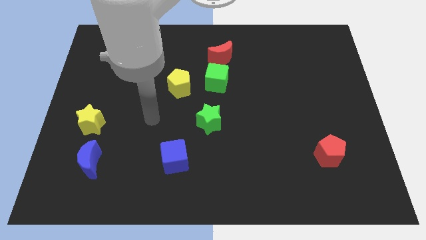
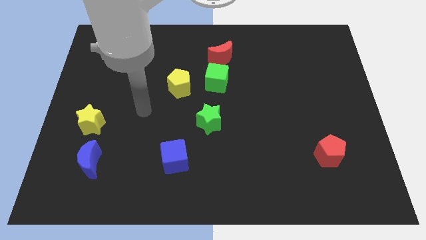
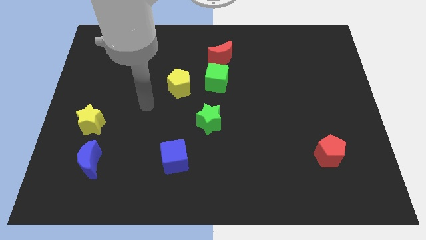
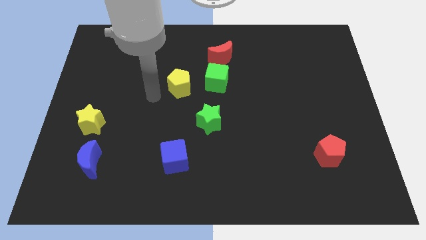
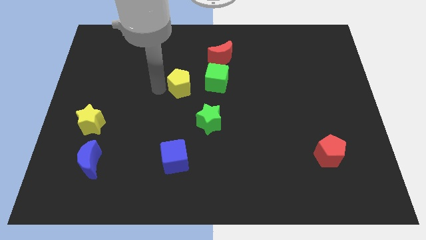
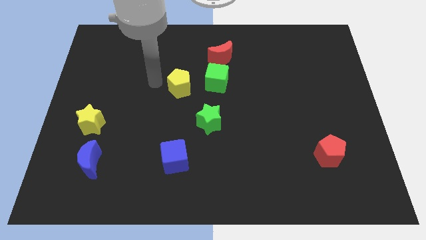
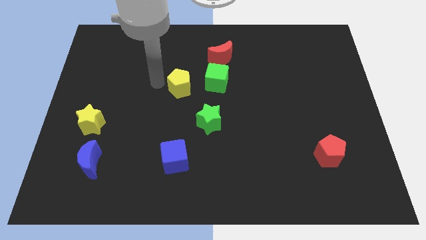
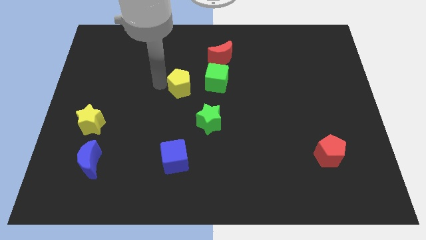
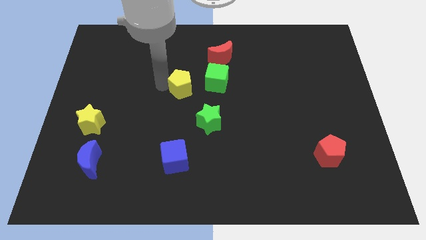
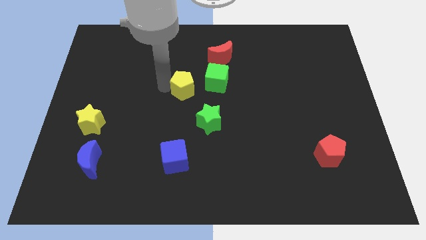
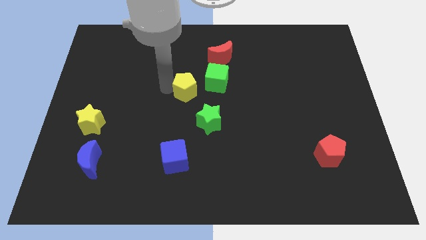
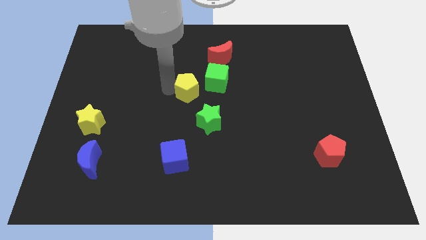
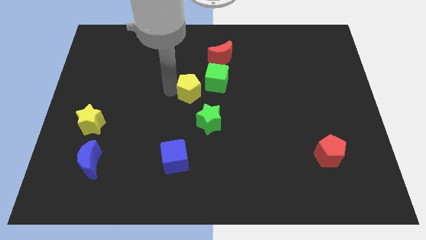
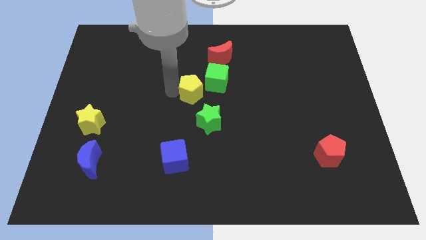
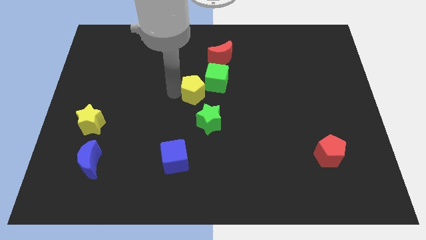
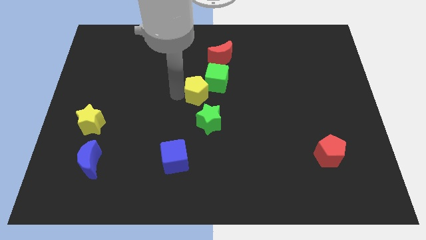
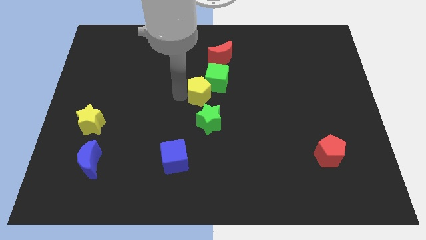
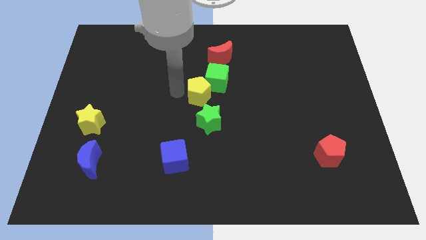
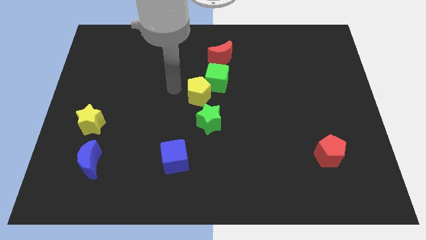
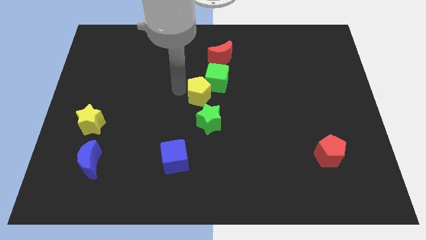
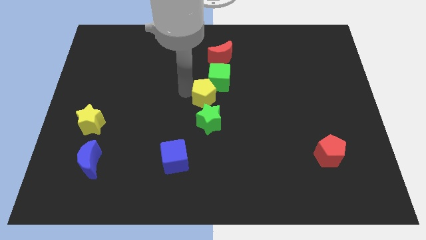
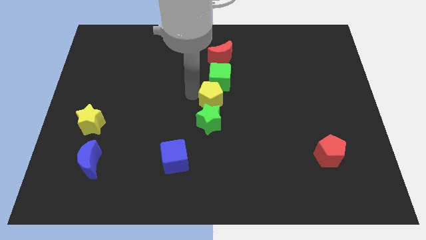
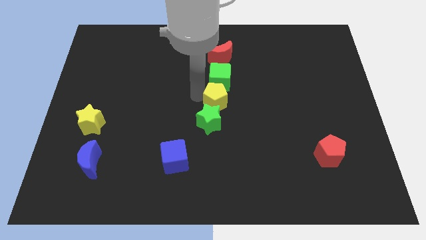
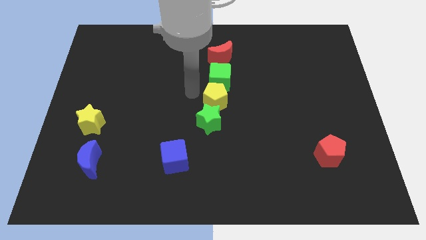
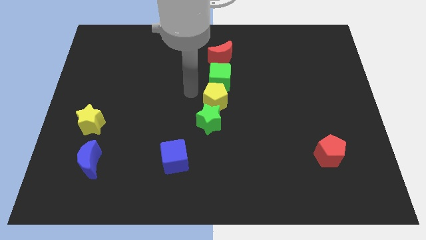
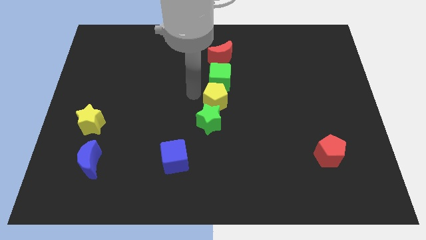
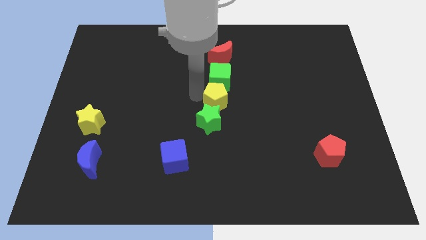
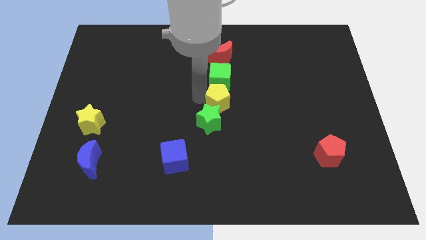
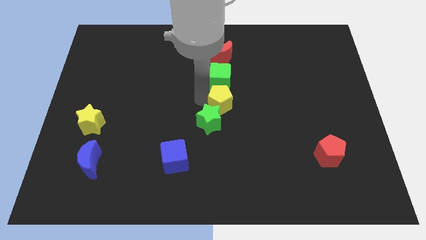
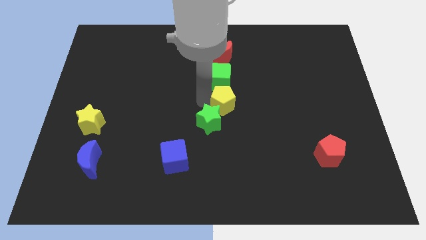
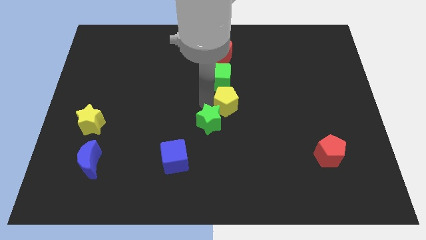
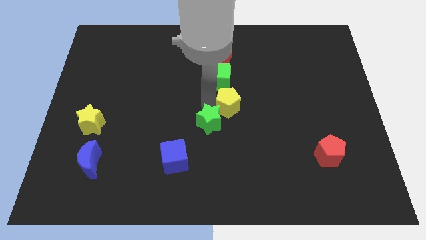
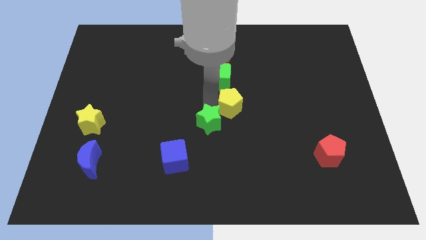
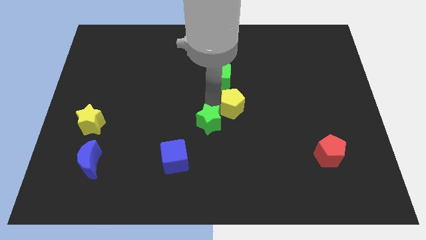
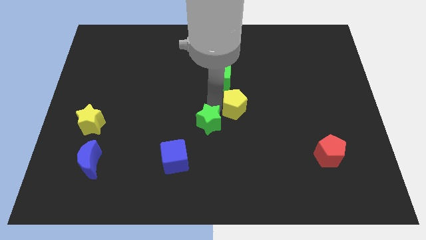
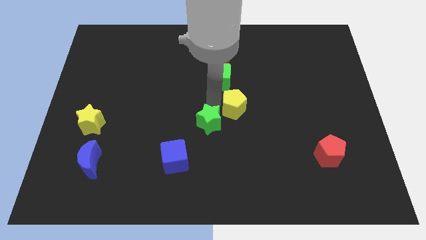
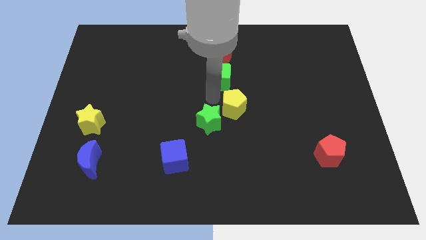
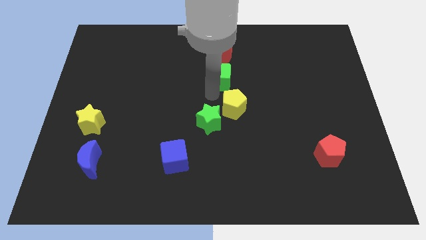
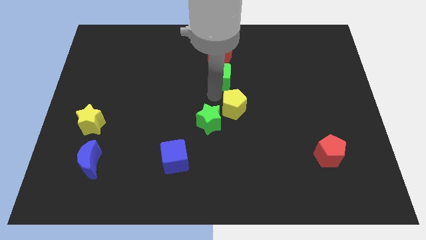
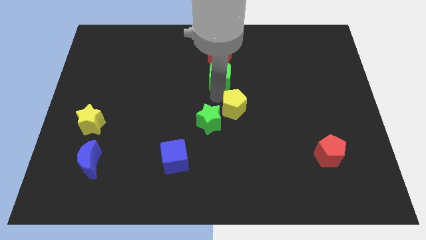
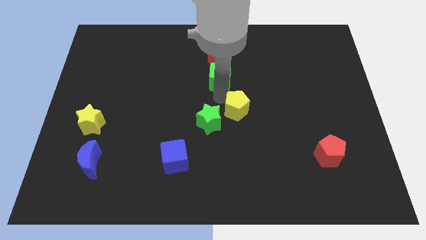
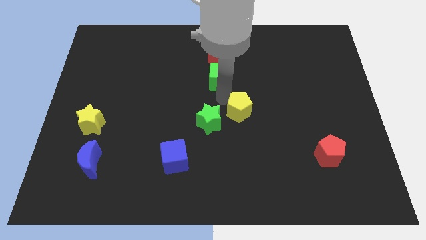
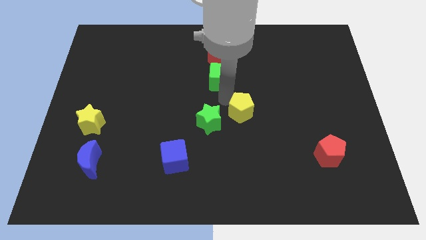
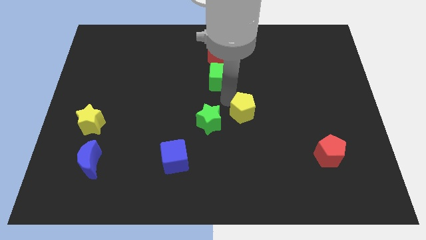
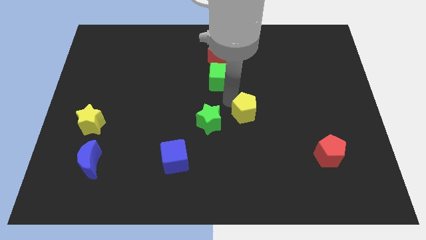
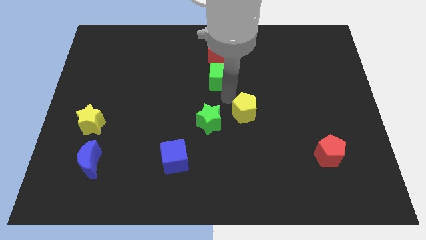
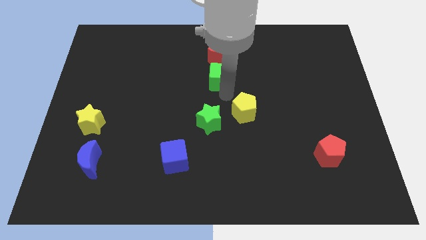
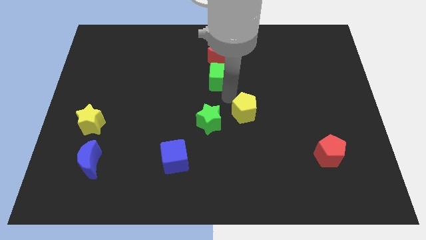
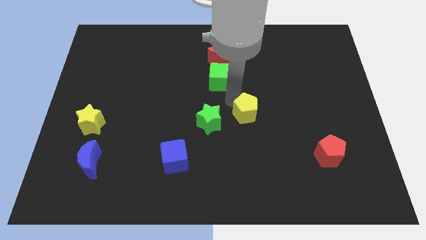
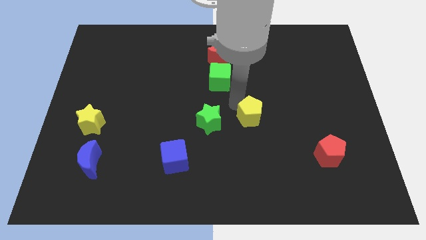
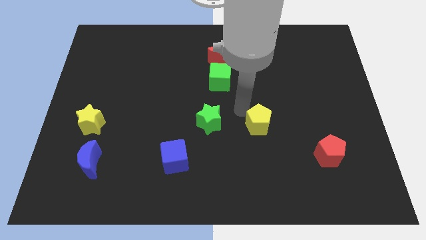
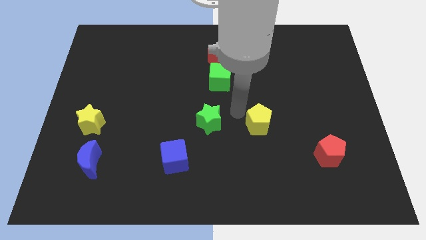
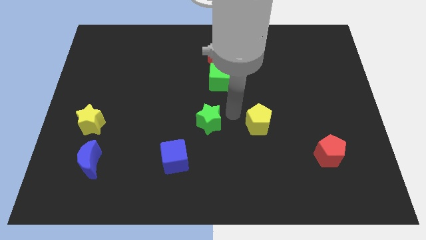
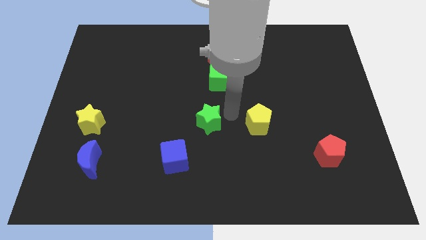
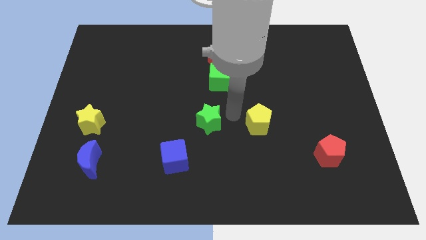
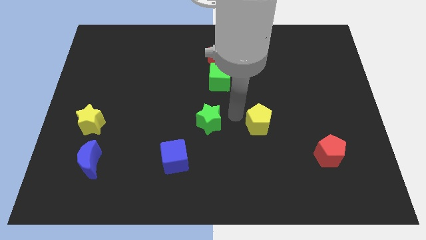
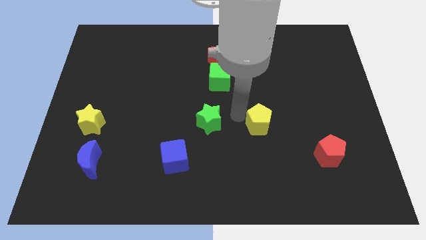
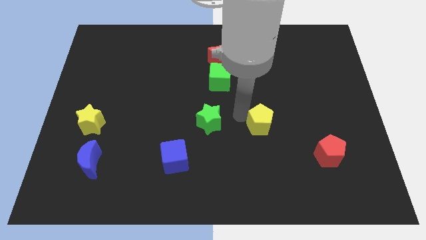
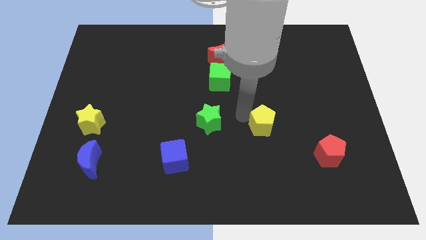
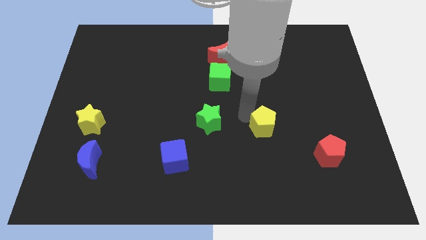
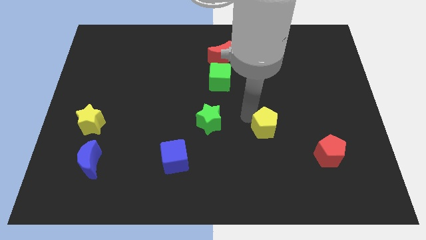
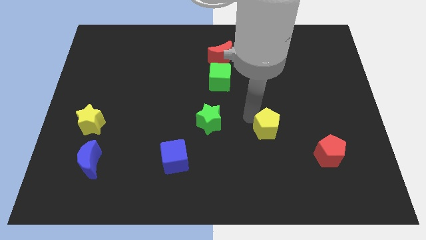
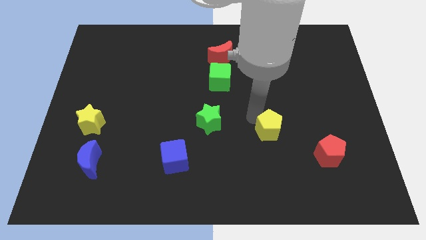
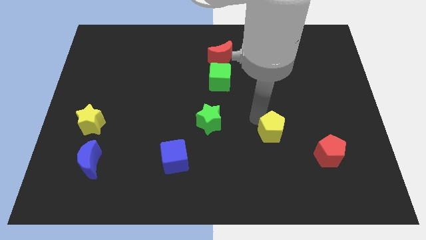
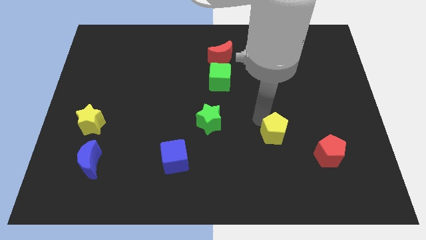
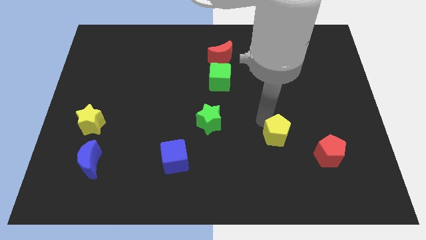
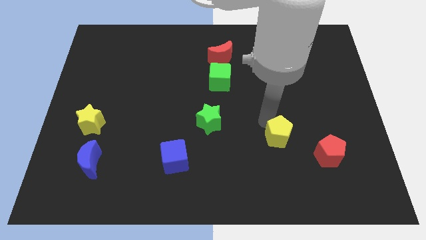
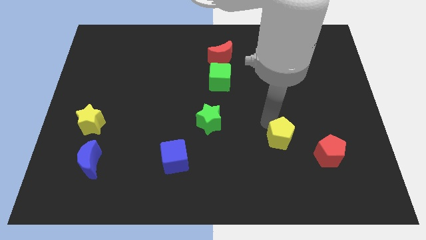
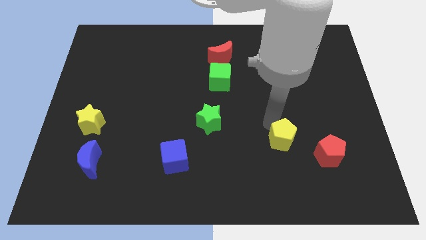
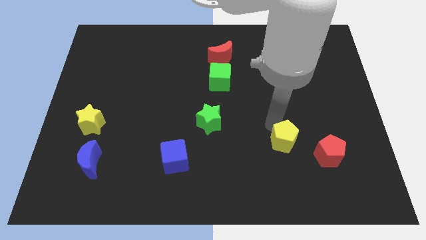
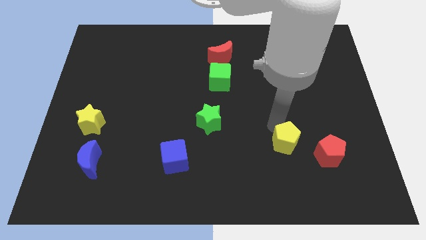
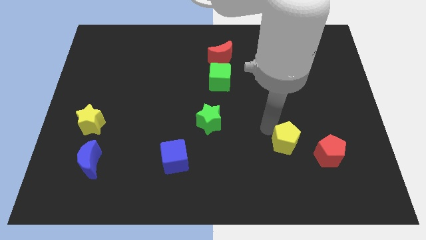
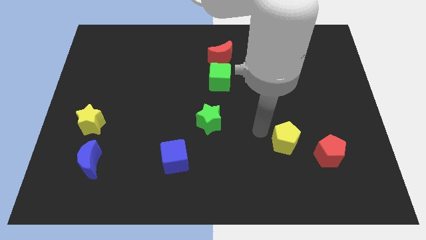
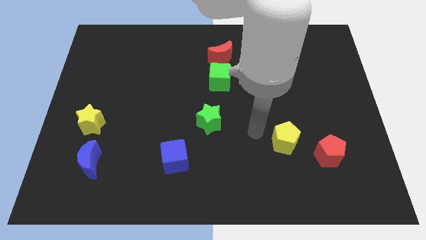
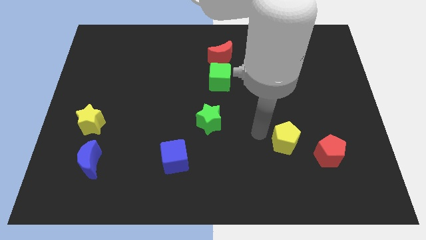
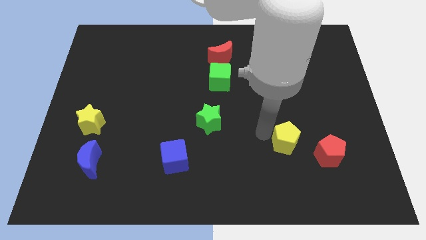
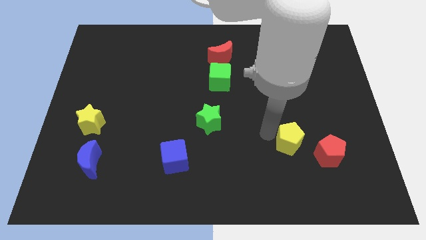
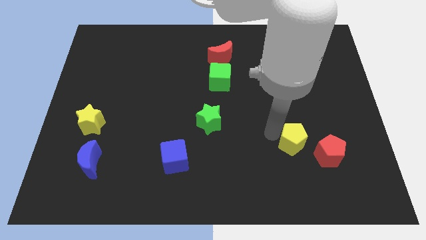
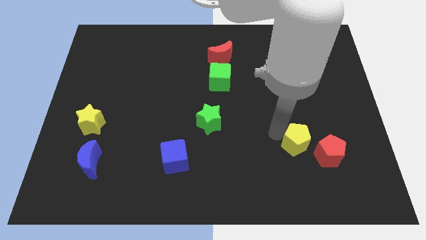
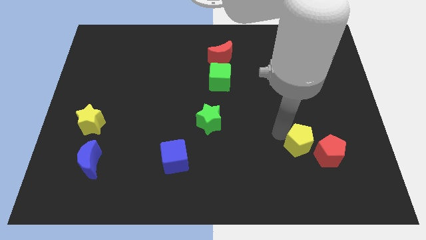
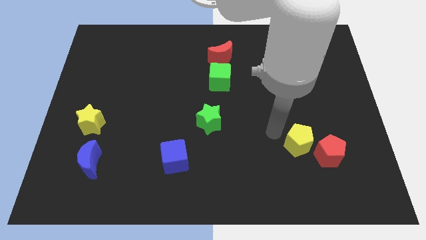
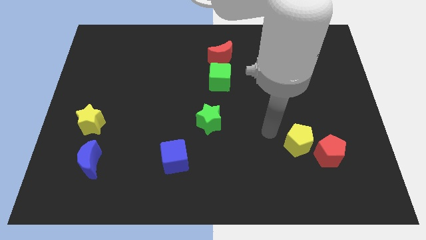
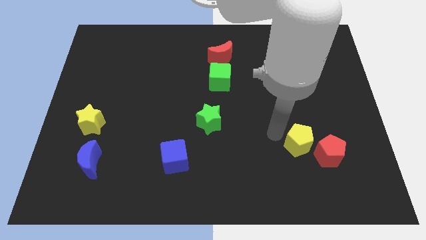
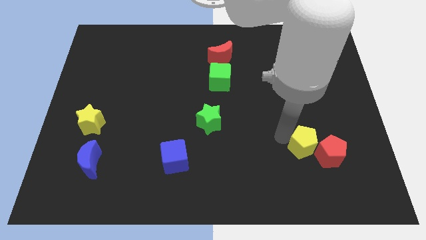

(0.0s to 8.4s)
slide the yellow pentagon close to the red pentagon
